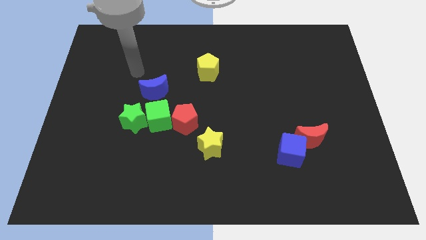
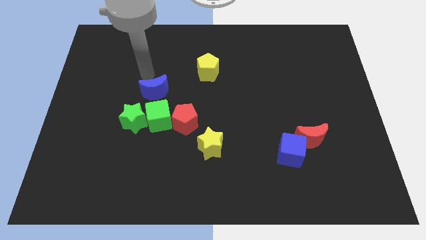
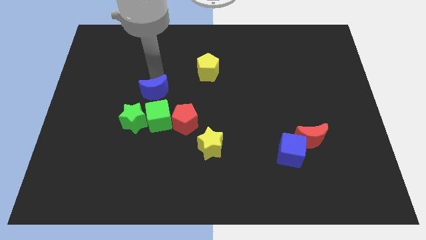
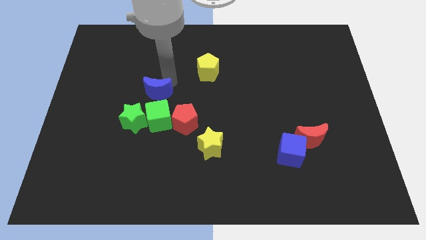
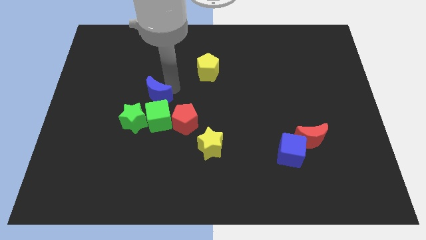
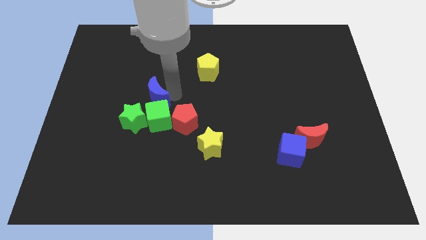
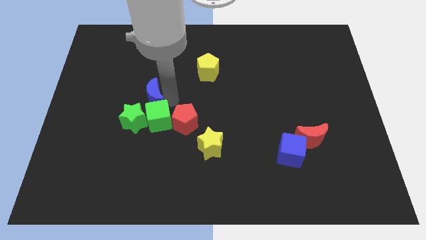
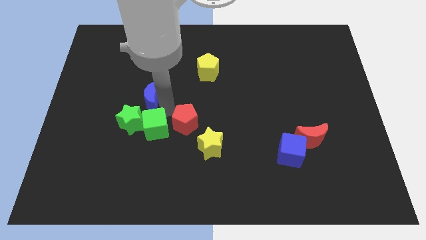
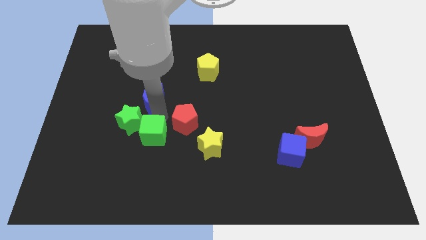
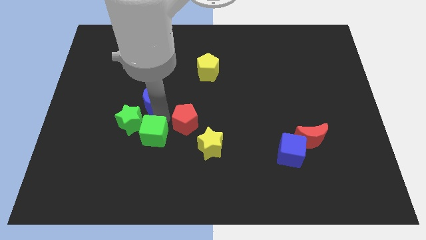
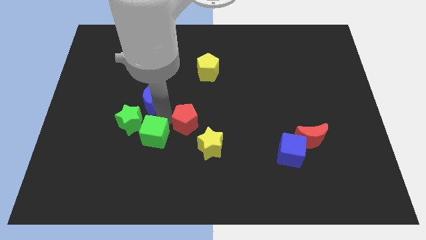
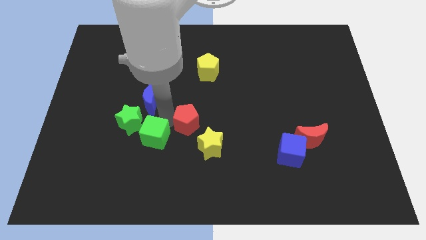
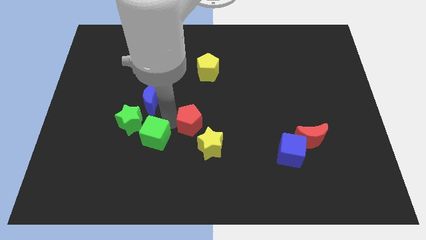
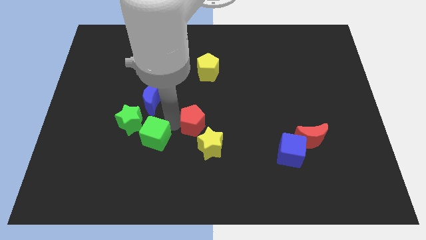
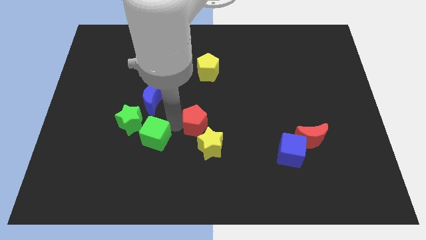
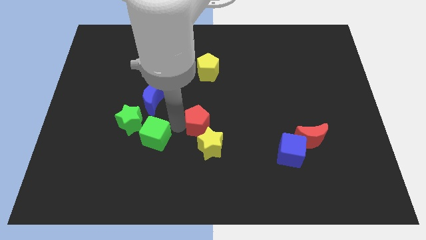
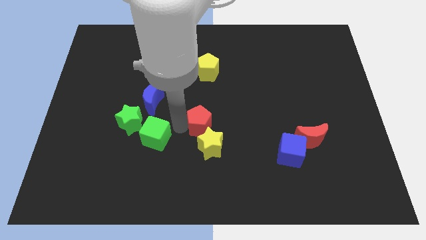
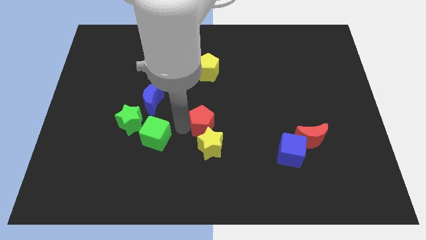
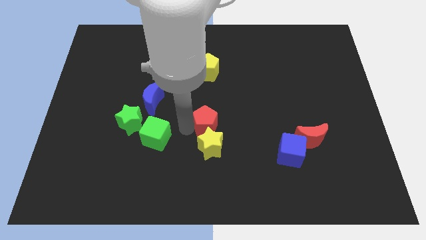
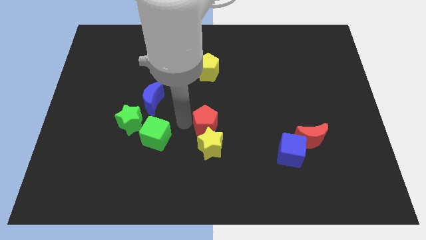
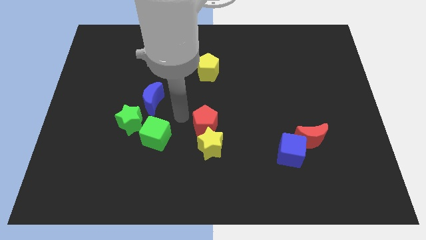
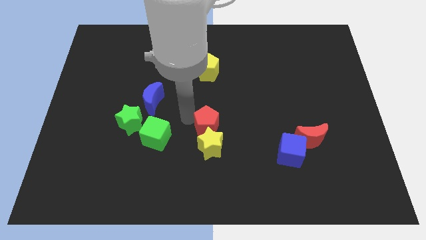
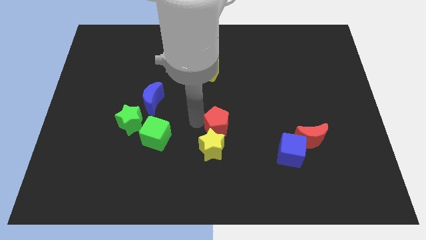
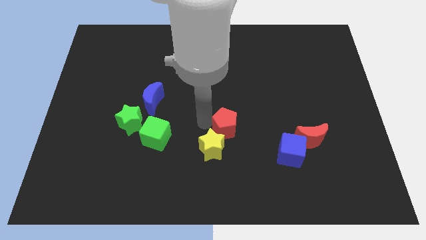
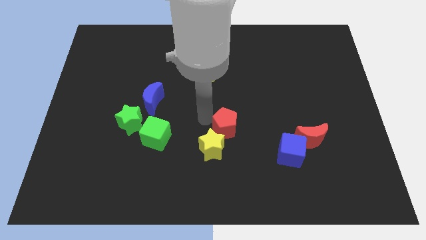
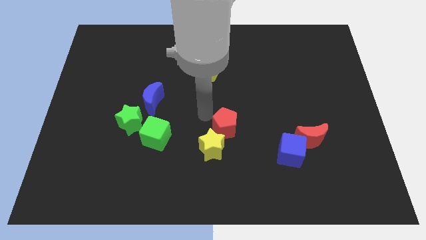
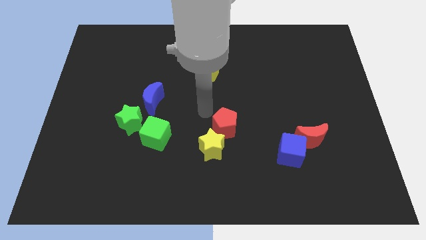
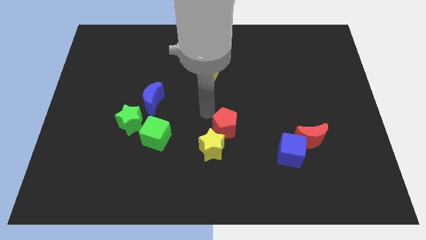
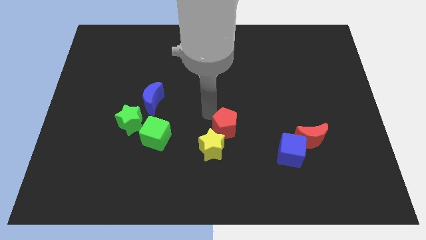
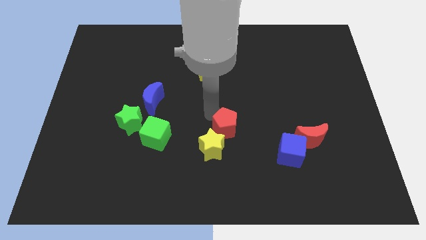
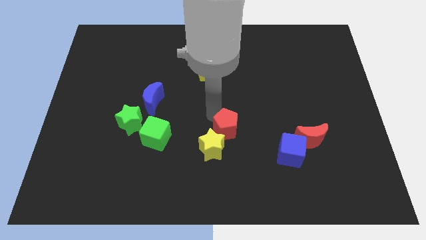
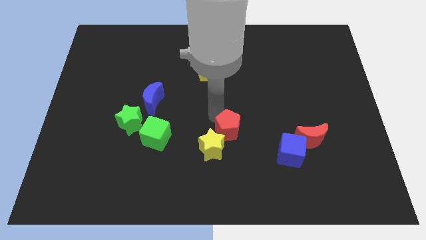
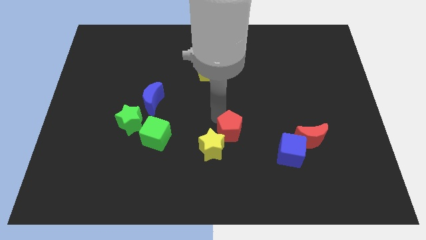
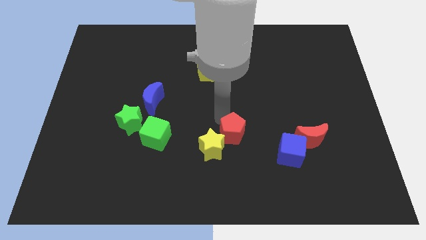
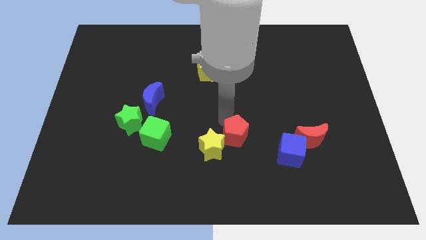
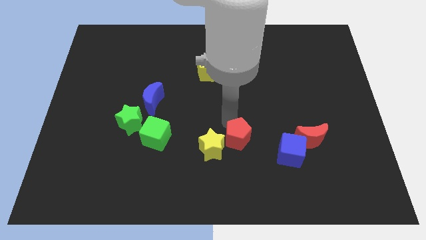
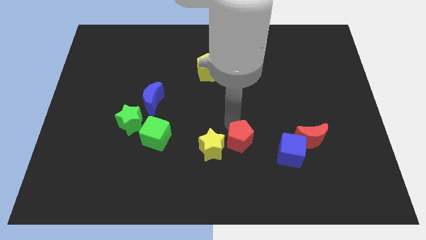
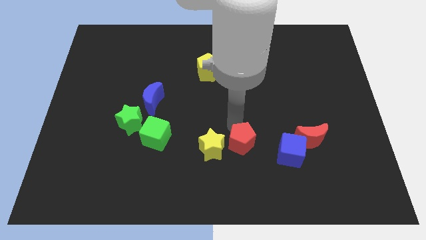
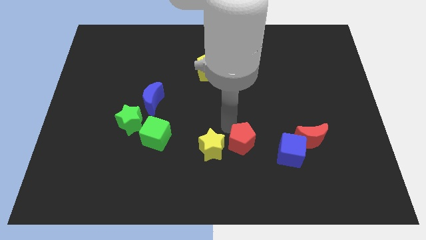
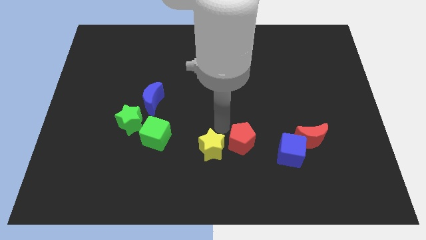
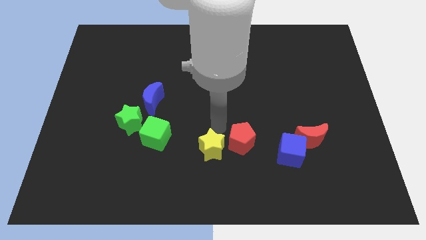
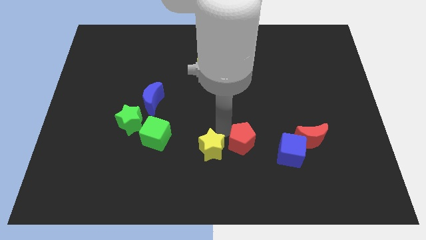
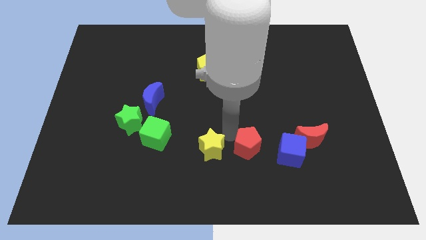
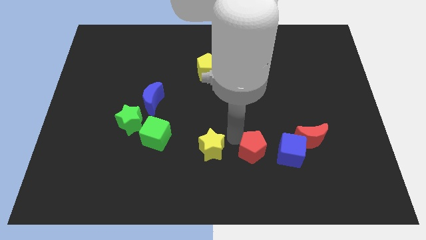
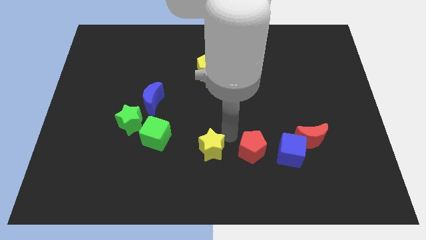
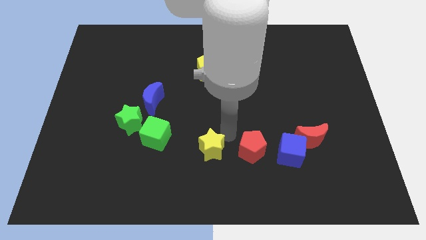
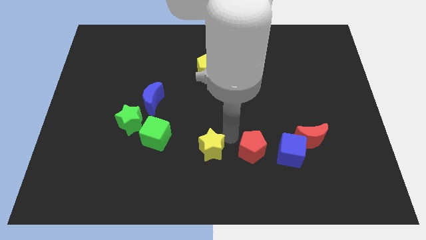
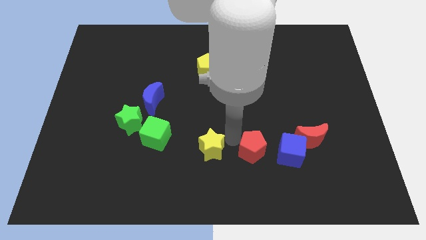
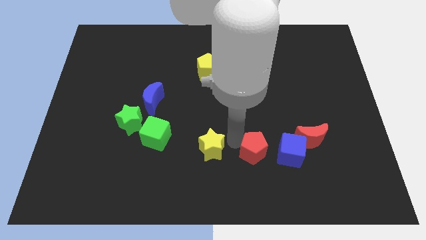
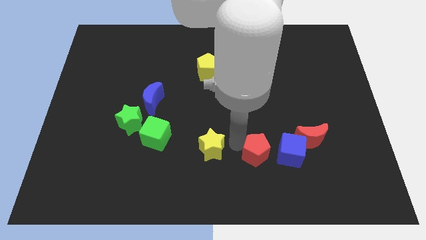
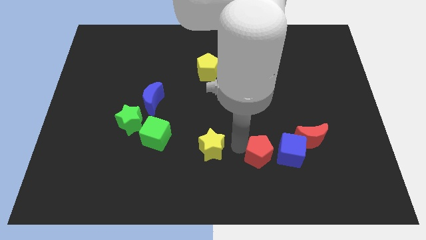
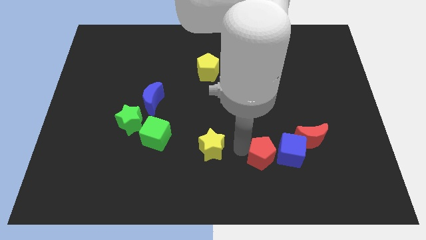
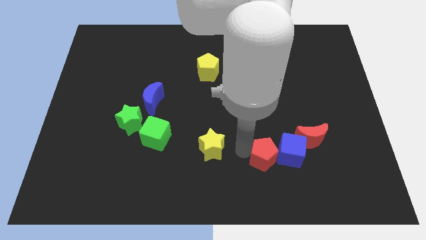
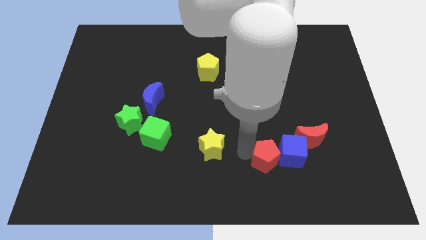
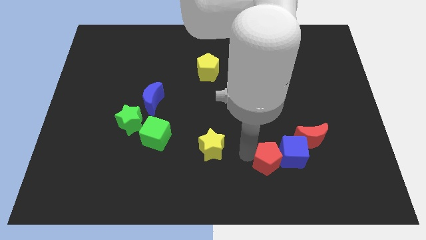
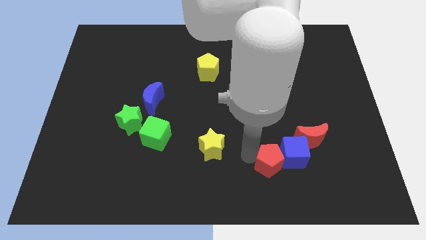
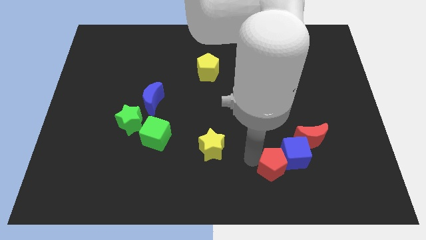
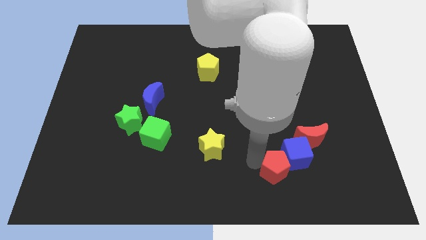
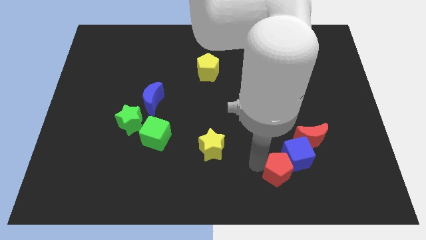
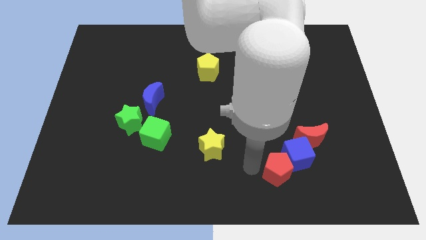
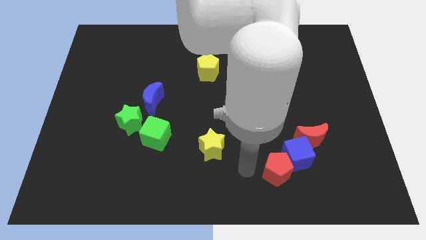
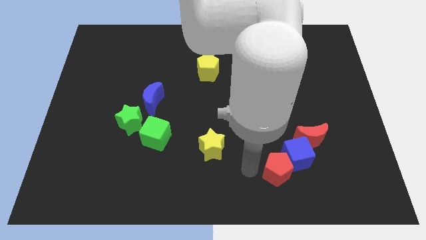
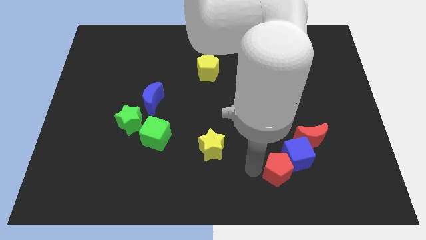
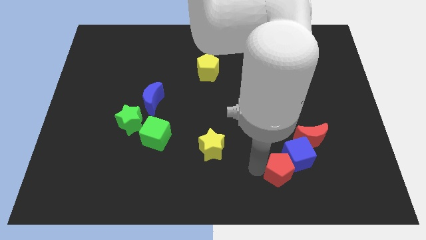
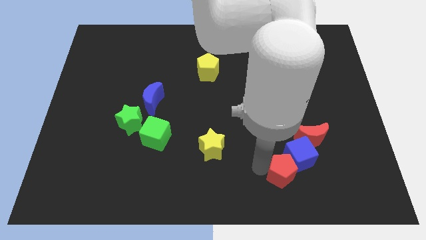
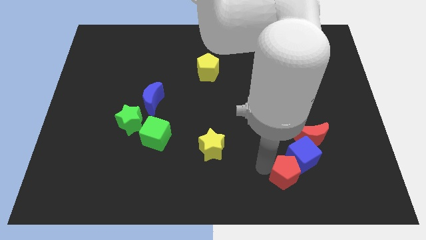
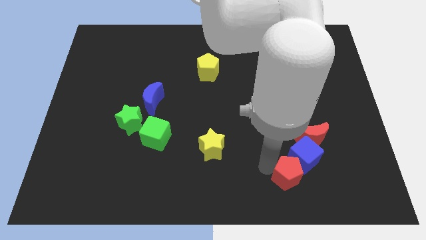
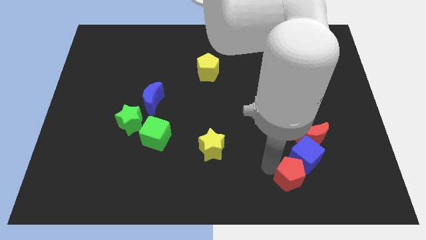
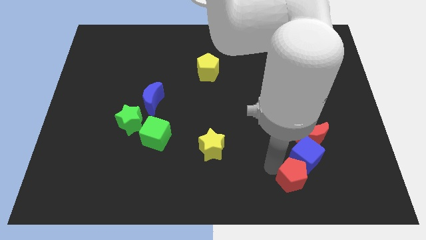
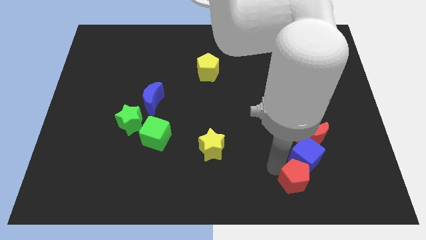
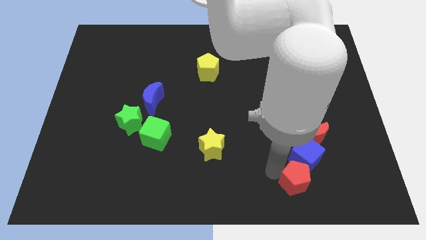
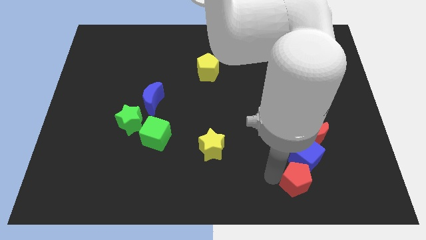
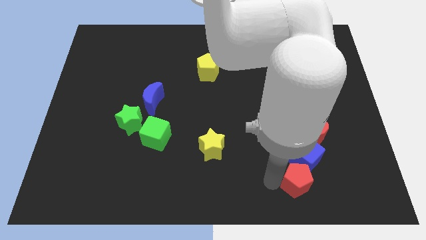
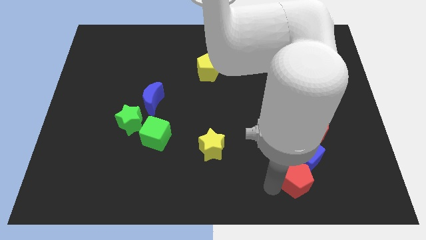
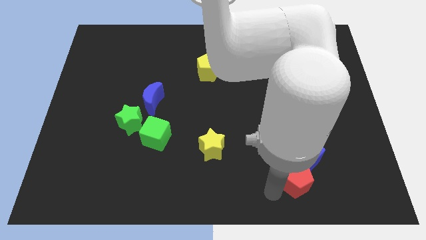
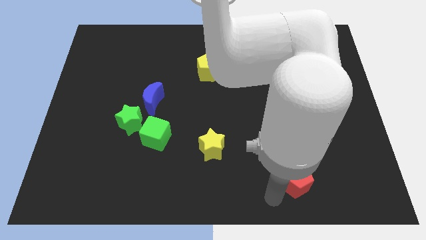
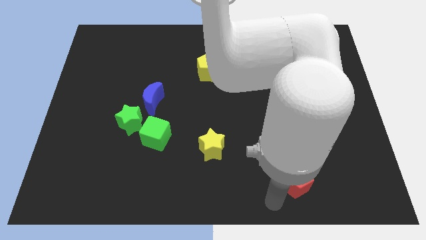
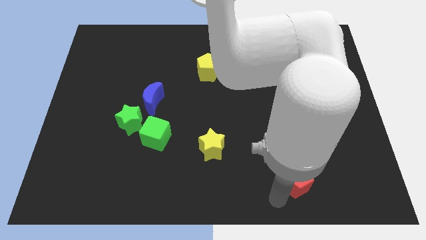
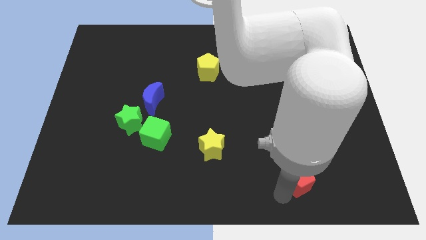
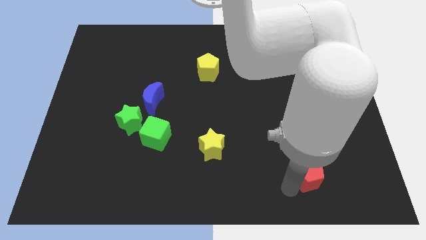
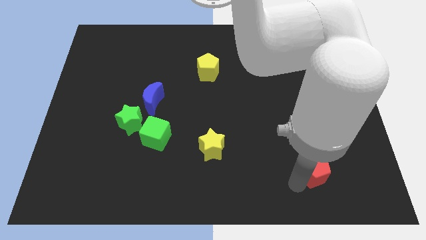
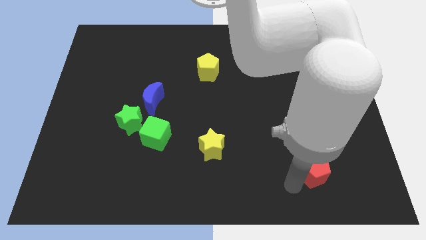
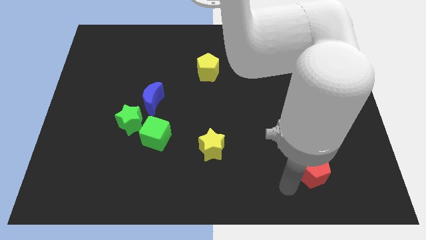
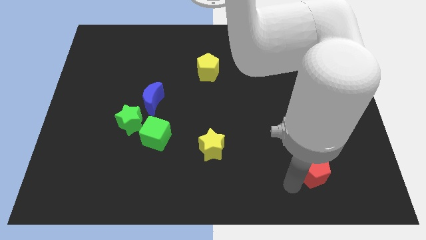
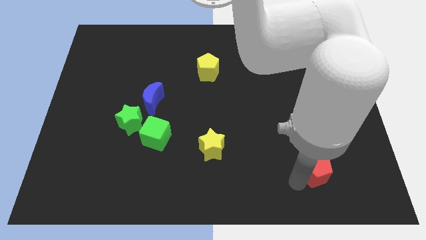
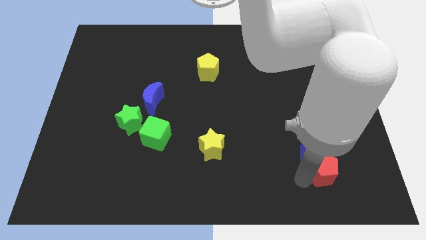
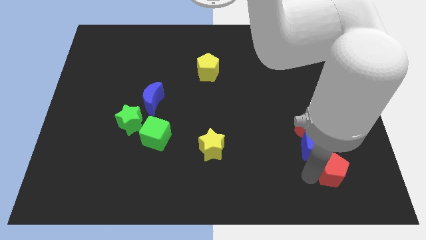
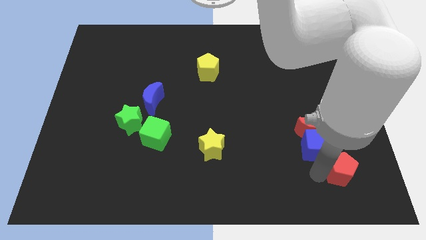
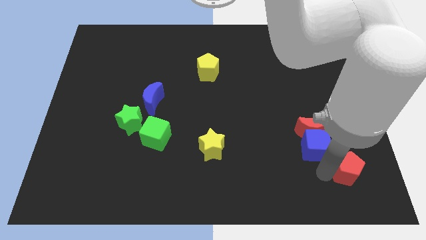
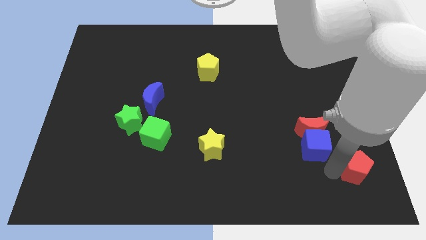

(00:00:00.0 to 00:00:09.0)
slide the red pentagon to the bottom right
